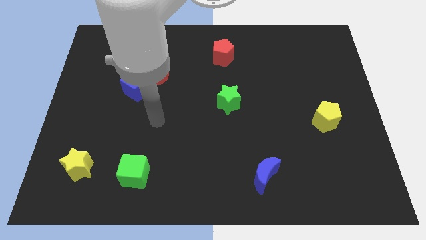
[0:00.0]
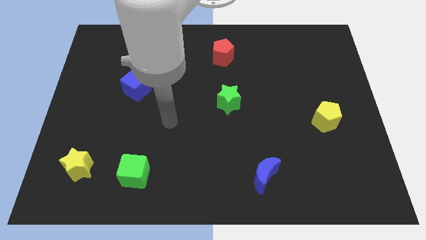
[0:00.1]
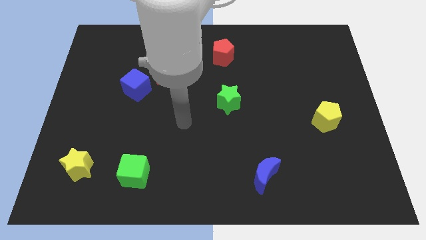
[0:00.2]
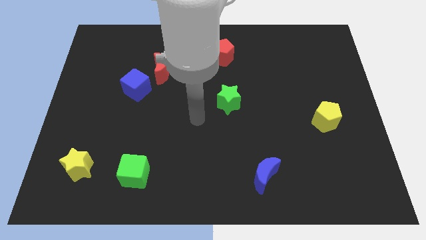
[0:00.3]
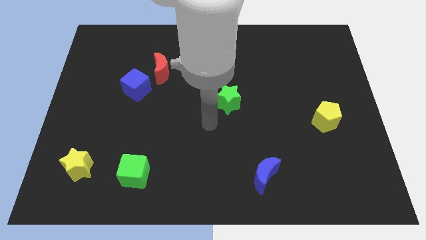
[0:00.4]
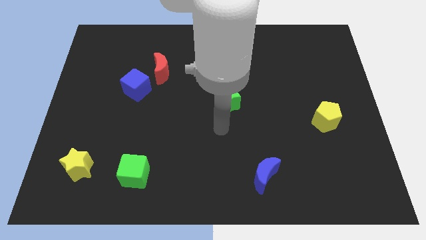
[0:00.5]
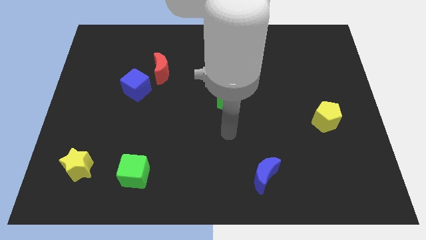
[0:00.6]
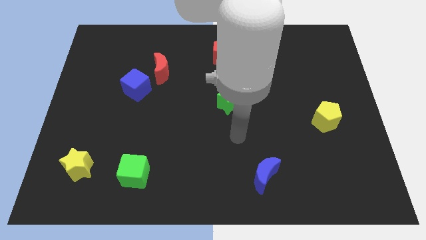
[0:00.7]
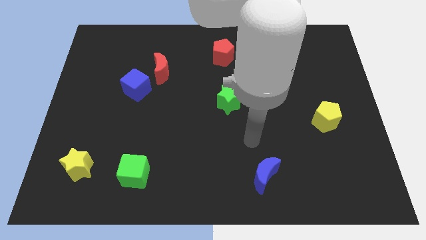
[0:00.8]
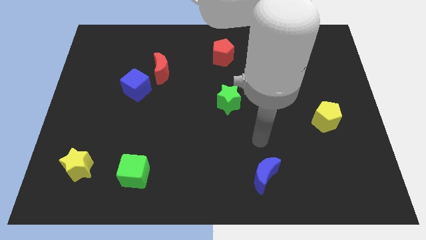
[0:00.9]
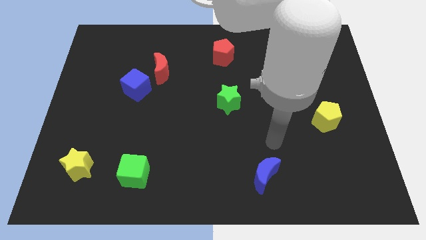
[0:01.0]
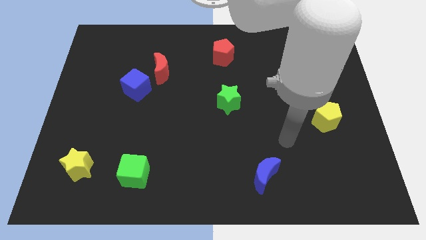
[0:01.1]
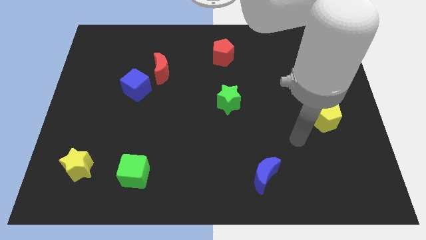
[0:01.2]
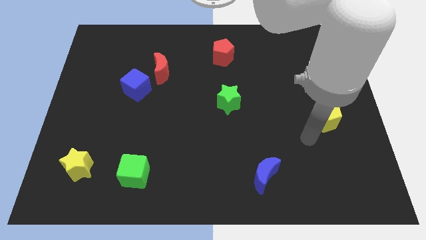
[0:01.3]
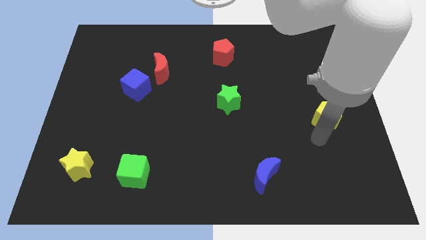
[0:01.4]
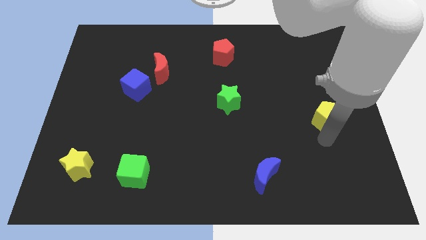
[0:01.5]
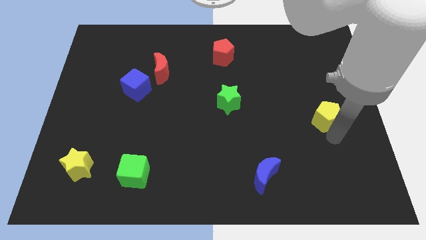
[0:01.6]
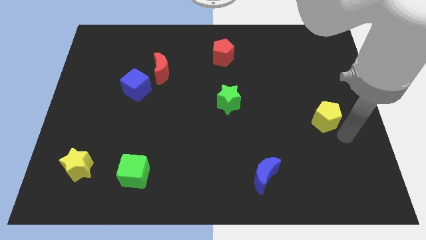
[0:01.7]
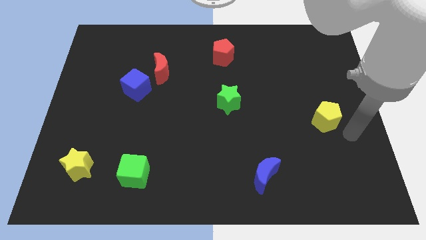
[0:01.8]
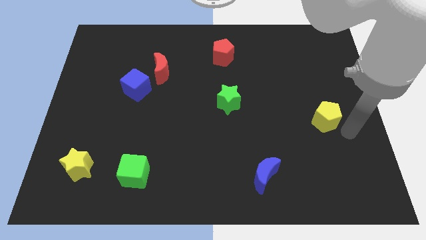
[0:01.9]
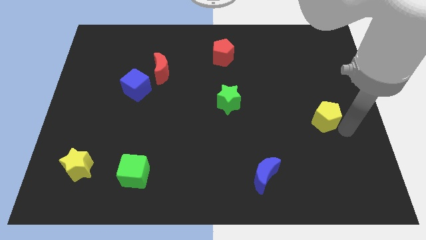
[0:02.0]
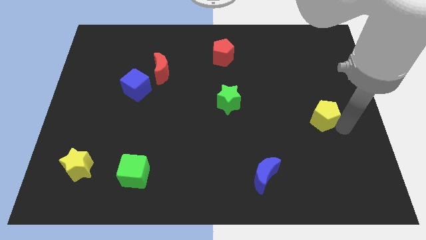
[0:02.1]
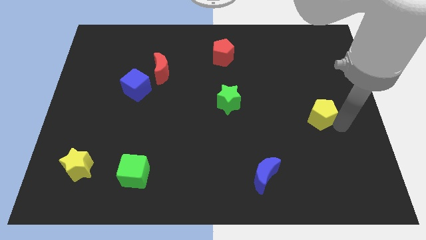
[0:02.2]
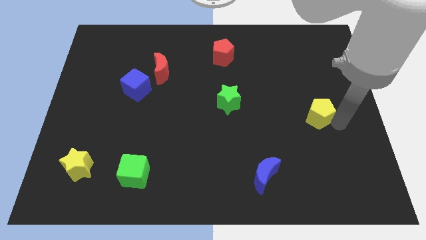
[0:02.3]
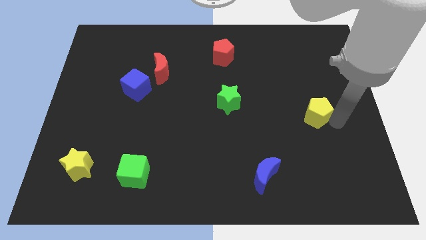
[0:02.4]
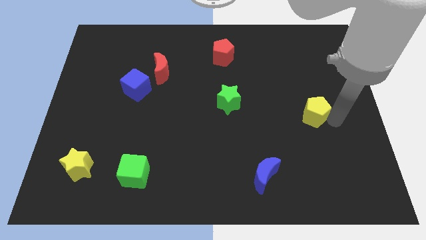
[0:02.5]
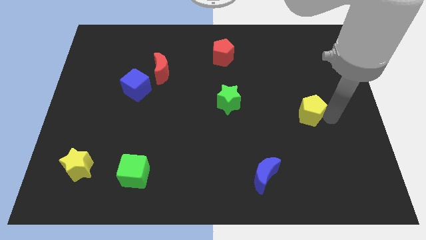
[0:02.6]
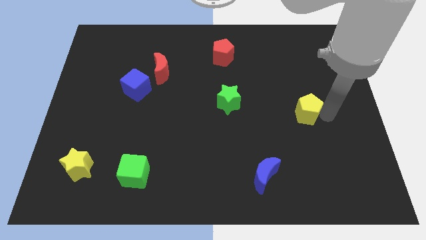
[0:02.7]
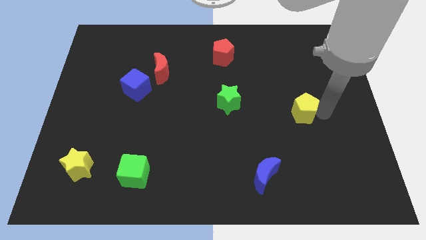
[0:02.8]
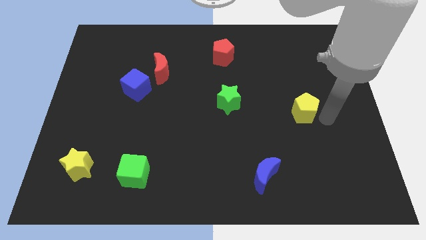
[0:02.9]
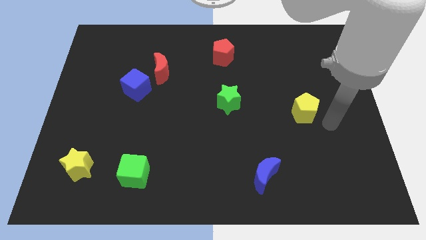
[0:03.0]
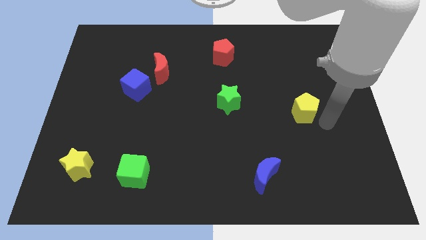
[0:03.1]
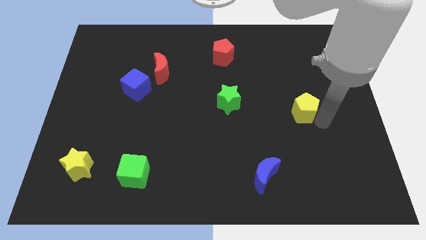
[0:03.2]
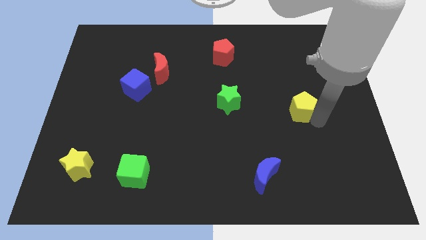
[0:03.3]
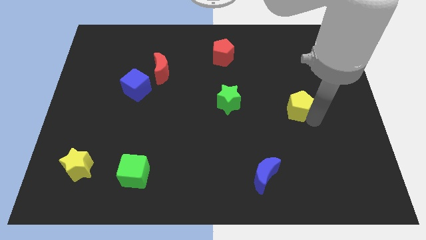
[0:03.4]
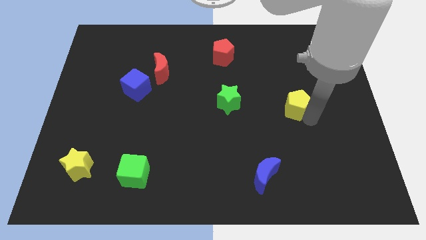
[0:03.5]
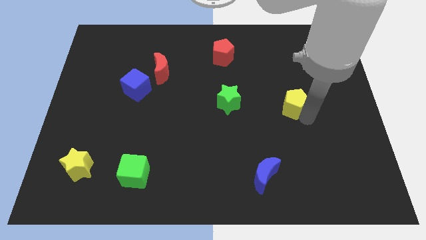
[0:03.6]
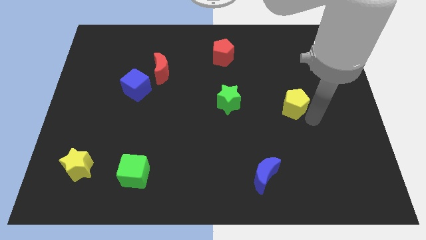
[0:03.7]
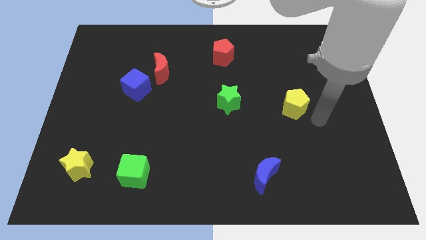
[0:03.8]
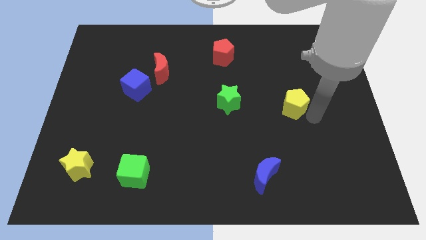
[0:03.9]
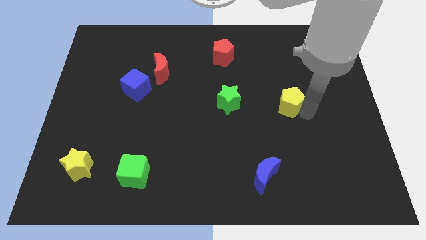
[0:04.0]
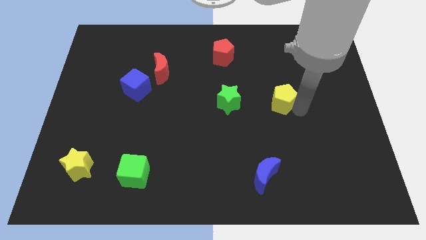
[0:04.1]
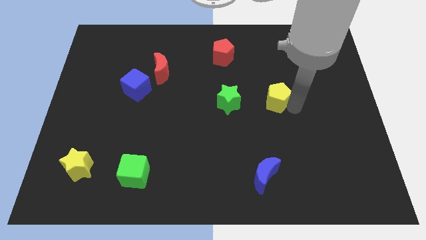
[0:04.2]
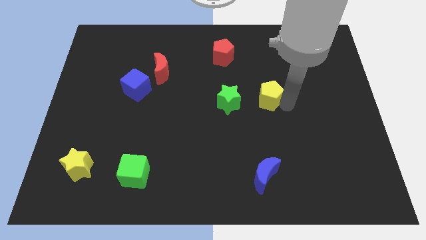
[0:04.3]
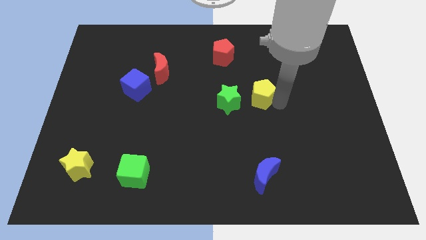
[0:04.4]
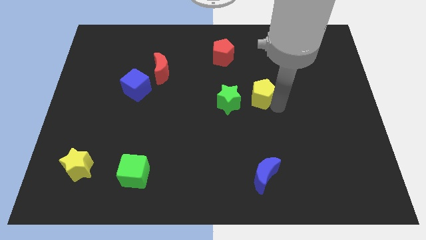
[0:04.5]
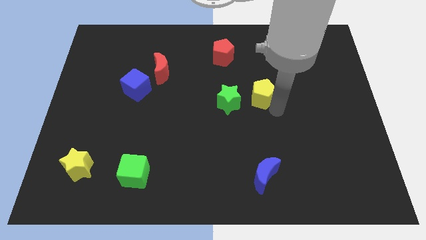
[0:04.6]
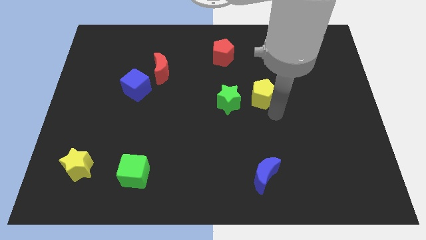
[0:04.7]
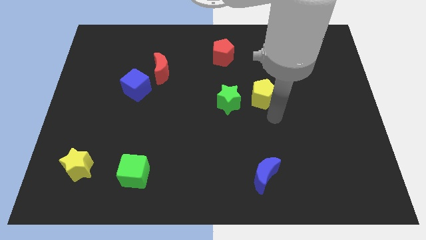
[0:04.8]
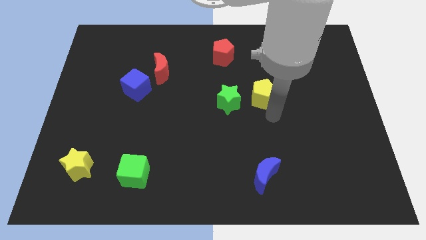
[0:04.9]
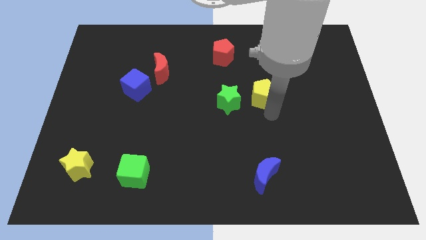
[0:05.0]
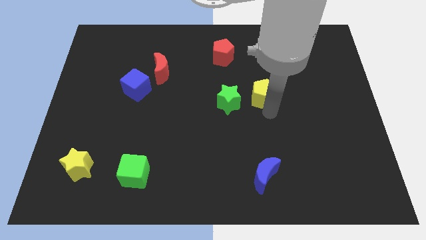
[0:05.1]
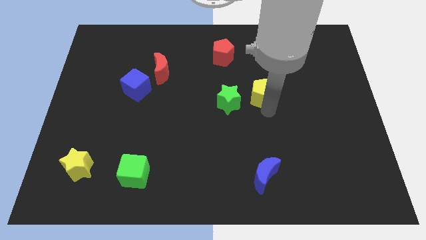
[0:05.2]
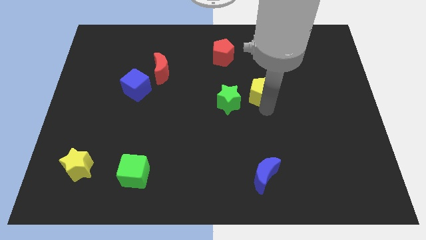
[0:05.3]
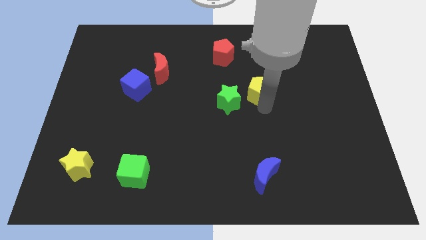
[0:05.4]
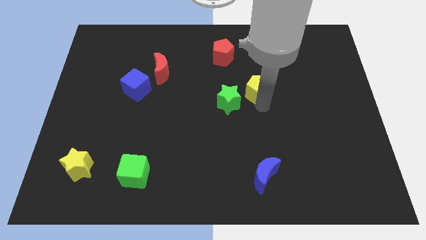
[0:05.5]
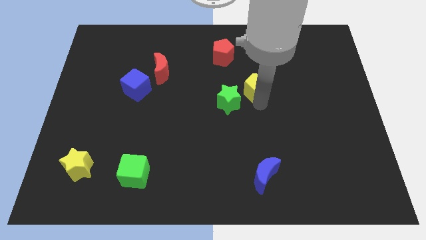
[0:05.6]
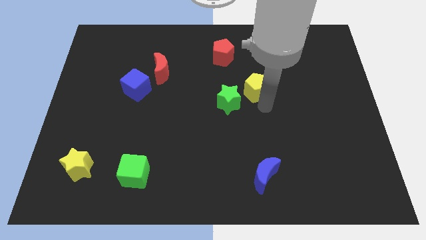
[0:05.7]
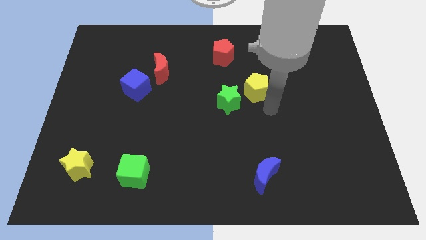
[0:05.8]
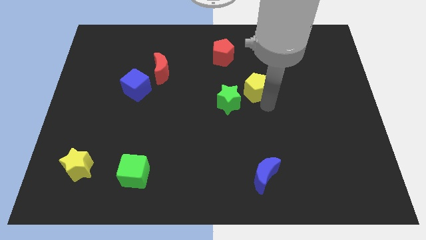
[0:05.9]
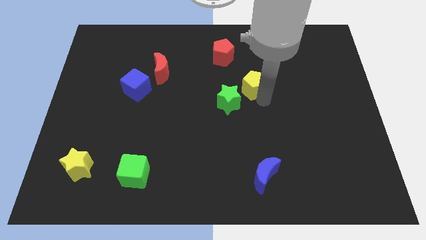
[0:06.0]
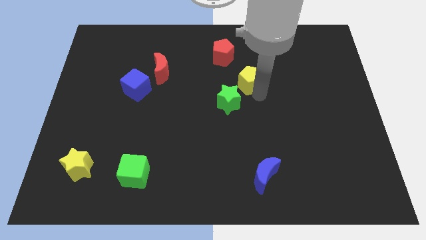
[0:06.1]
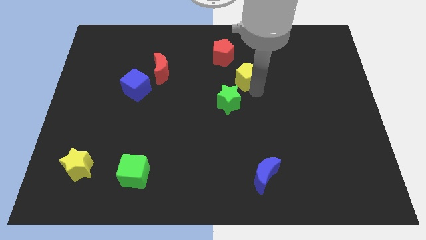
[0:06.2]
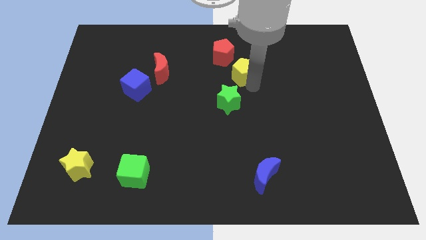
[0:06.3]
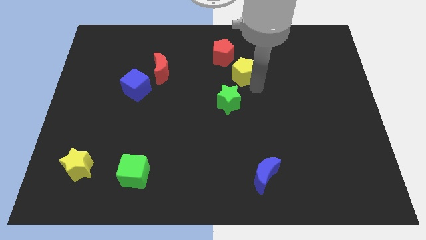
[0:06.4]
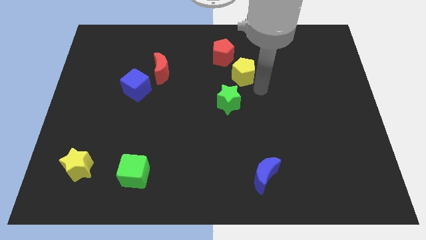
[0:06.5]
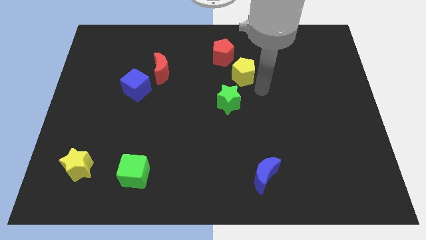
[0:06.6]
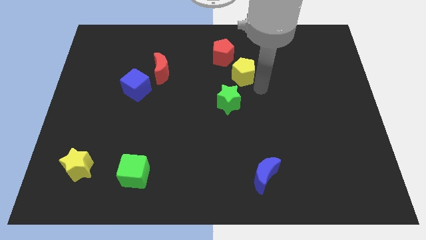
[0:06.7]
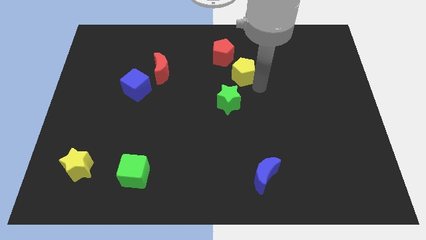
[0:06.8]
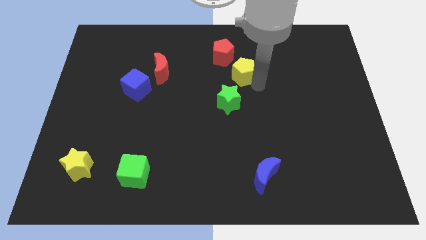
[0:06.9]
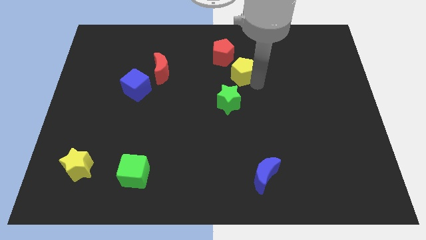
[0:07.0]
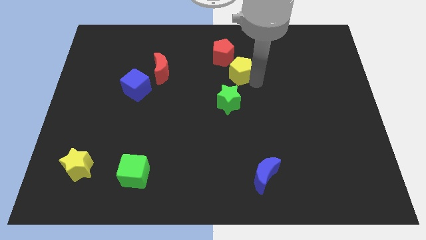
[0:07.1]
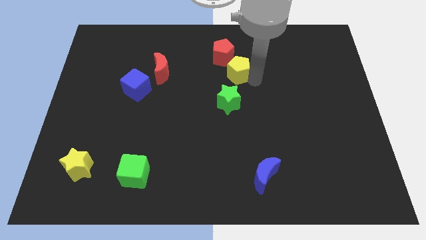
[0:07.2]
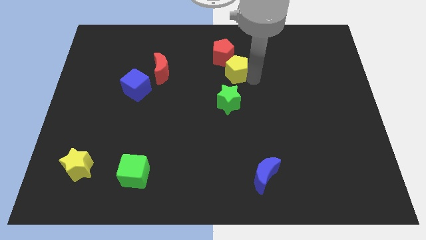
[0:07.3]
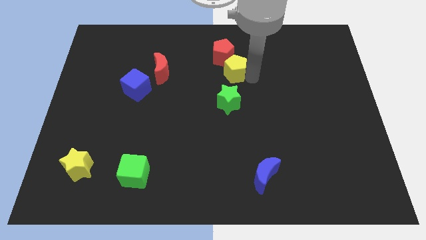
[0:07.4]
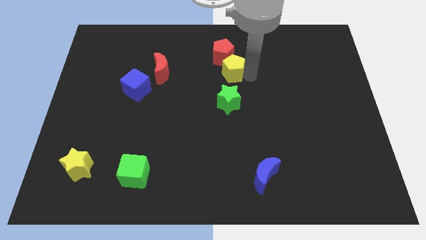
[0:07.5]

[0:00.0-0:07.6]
slide the yellow pentagon to the red pentagon
